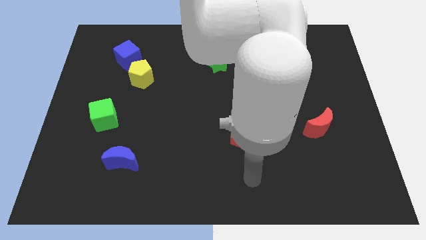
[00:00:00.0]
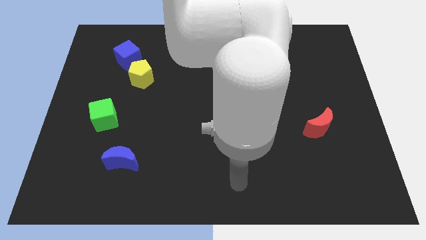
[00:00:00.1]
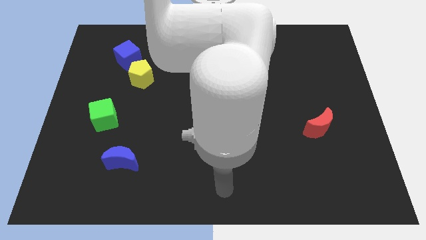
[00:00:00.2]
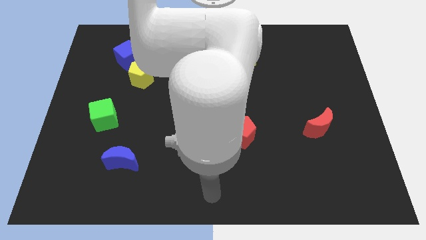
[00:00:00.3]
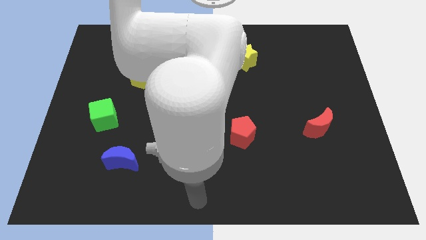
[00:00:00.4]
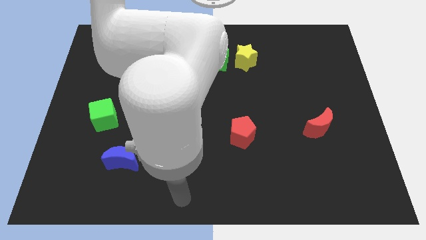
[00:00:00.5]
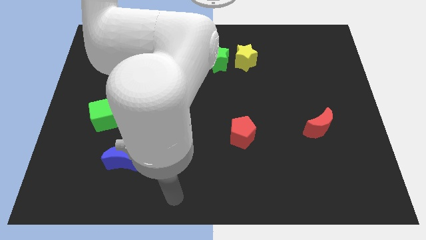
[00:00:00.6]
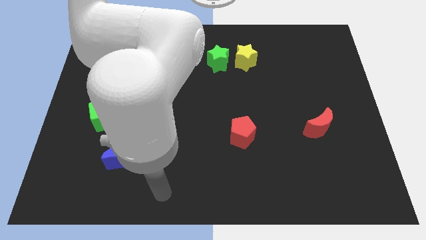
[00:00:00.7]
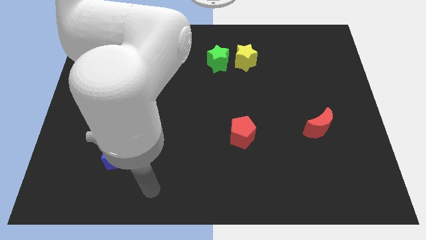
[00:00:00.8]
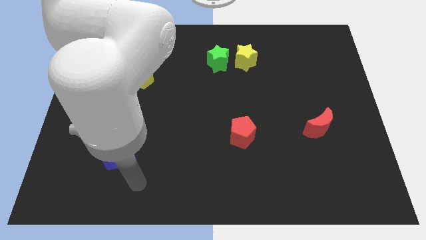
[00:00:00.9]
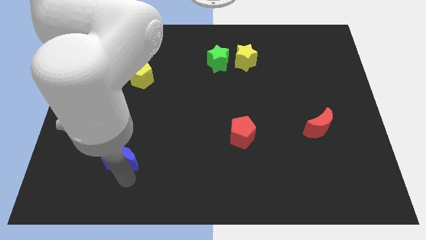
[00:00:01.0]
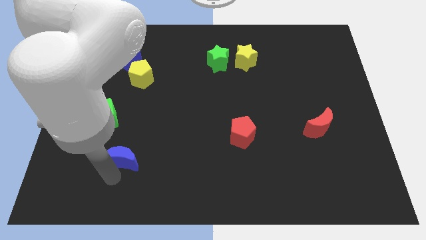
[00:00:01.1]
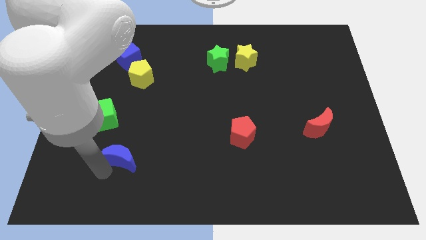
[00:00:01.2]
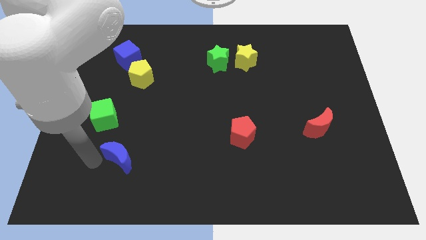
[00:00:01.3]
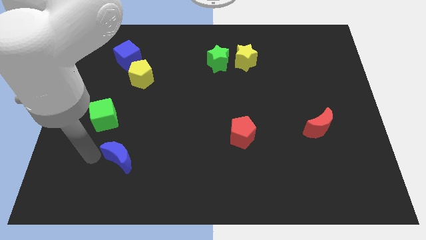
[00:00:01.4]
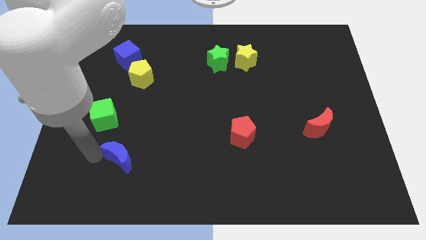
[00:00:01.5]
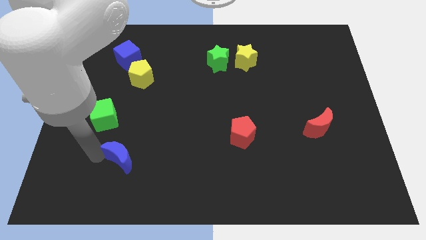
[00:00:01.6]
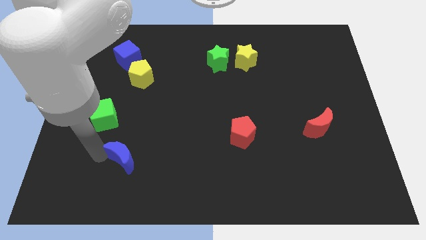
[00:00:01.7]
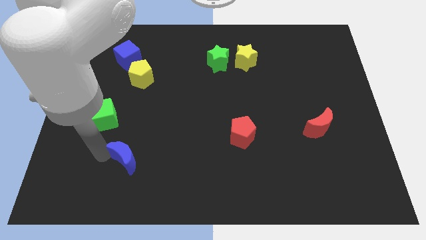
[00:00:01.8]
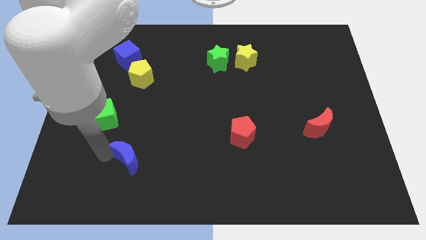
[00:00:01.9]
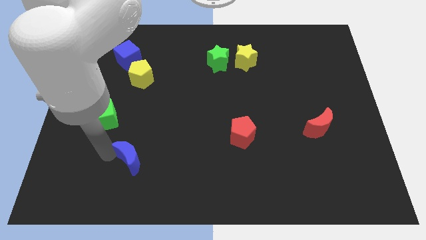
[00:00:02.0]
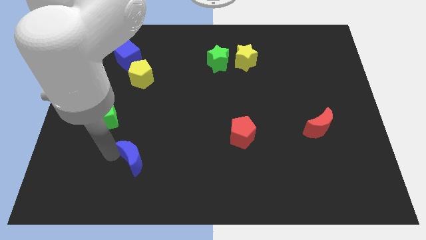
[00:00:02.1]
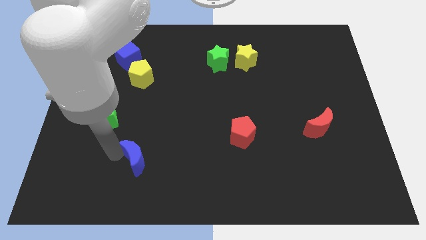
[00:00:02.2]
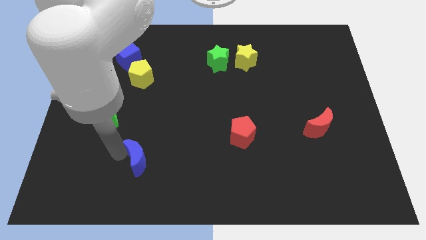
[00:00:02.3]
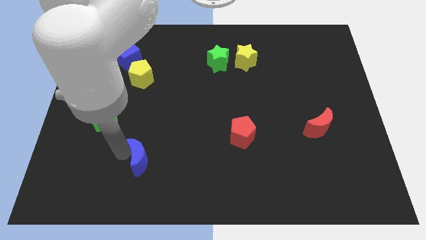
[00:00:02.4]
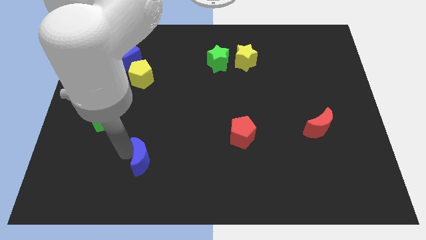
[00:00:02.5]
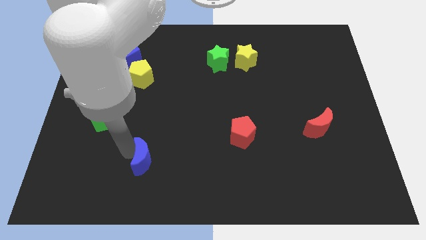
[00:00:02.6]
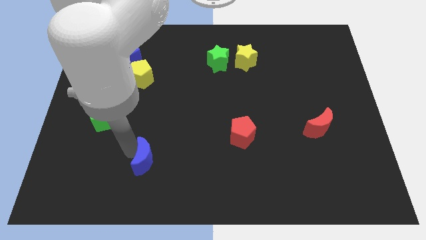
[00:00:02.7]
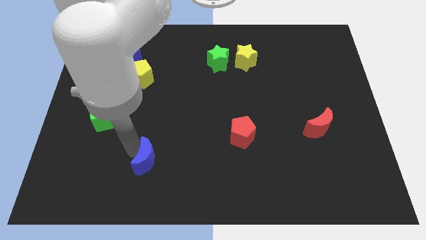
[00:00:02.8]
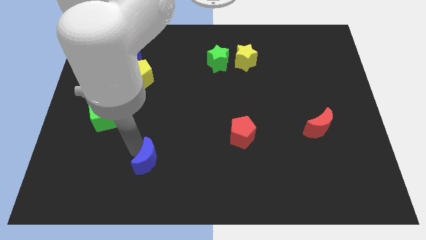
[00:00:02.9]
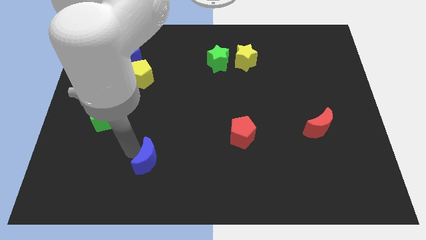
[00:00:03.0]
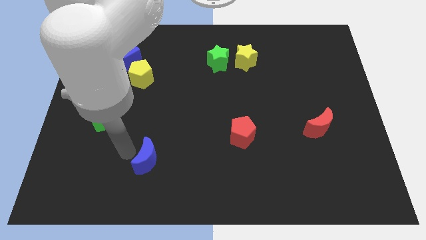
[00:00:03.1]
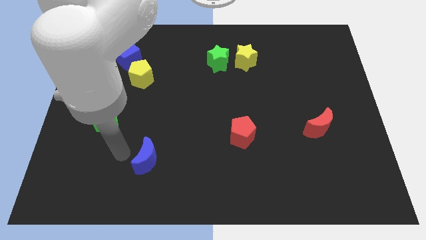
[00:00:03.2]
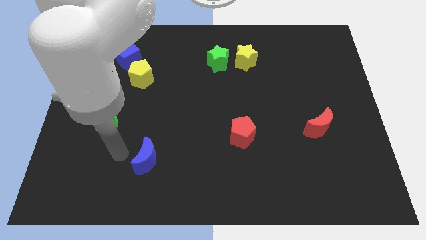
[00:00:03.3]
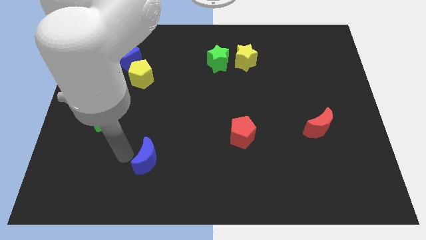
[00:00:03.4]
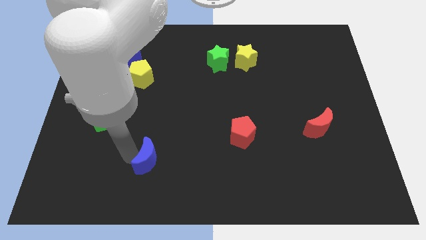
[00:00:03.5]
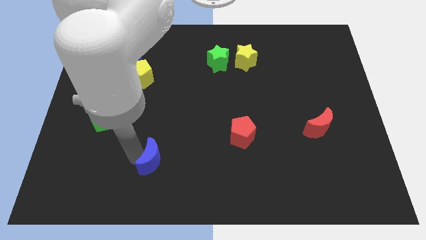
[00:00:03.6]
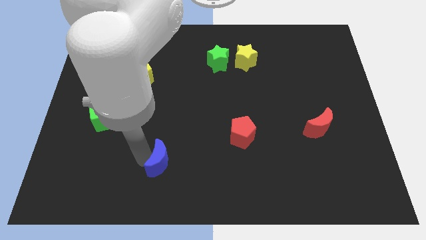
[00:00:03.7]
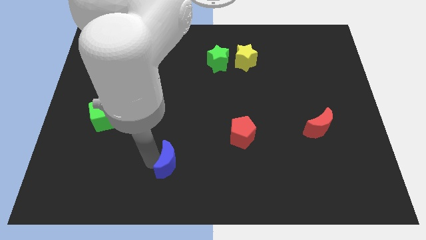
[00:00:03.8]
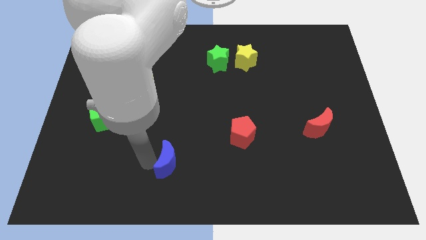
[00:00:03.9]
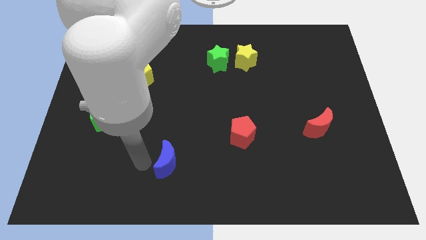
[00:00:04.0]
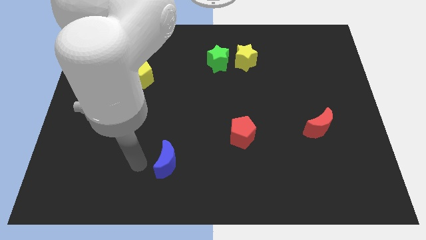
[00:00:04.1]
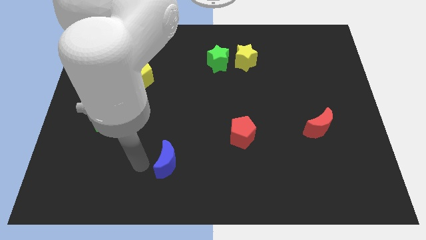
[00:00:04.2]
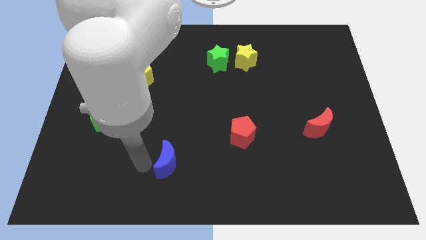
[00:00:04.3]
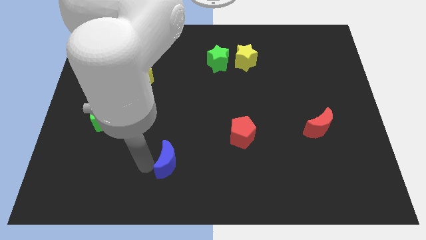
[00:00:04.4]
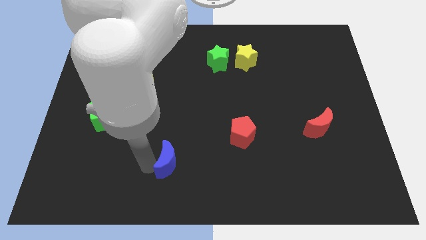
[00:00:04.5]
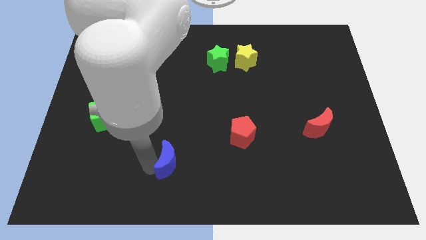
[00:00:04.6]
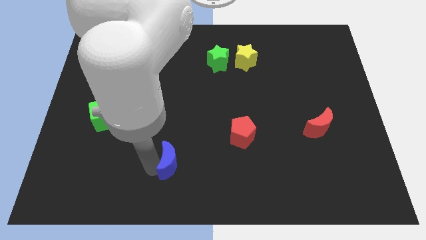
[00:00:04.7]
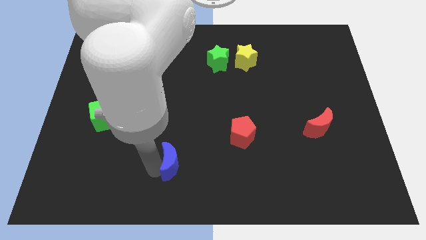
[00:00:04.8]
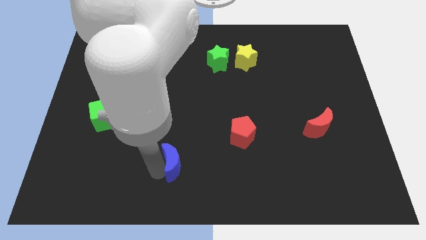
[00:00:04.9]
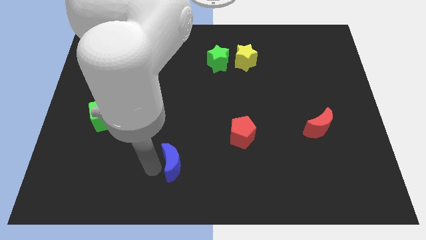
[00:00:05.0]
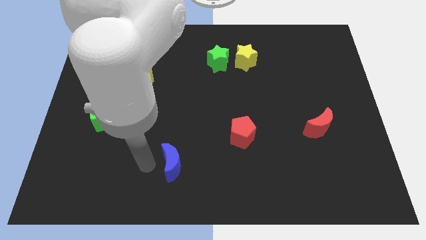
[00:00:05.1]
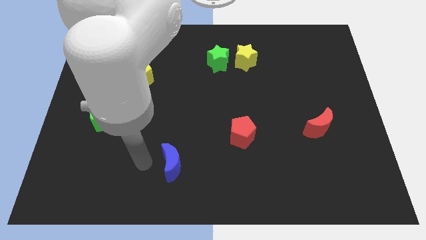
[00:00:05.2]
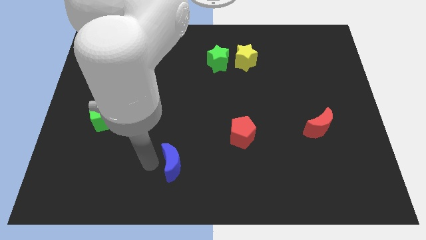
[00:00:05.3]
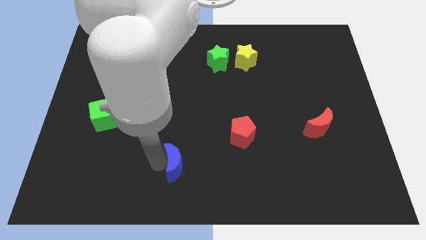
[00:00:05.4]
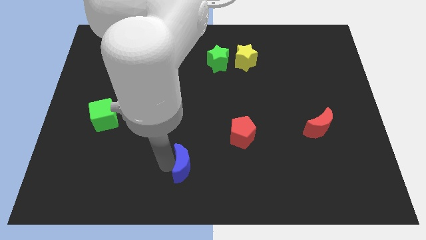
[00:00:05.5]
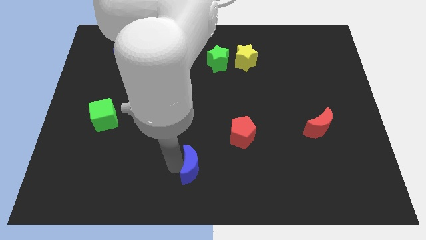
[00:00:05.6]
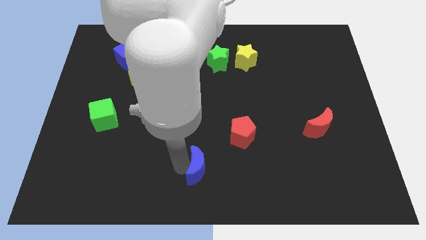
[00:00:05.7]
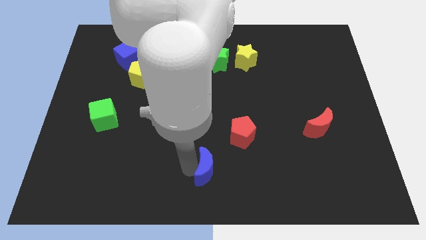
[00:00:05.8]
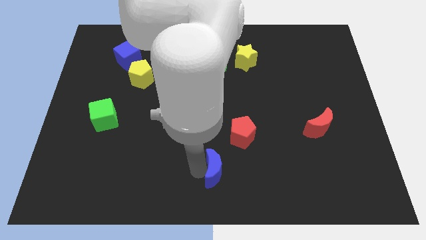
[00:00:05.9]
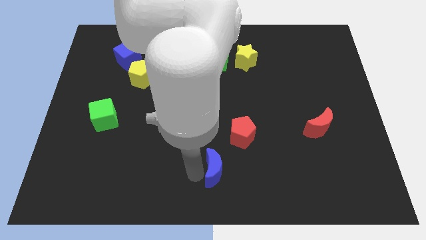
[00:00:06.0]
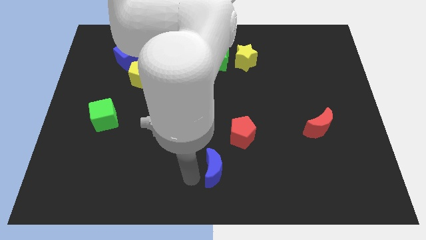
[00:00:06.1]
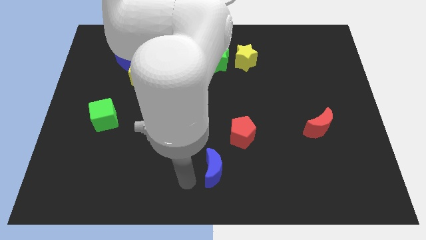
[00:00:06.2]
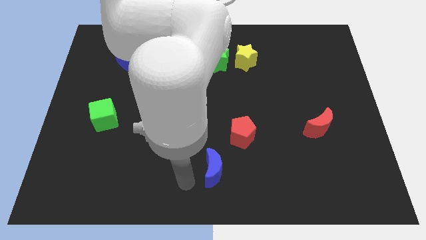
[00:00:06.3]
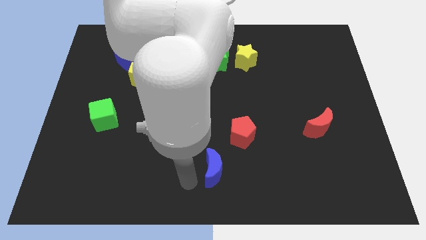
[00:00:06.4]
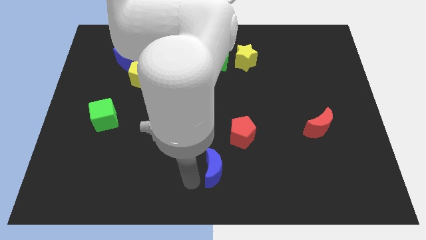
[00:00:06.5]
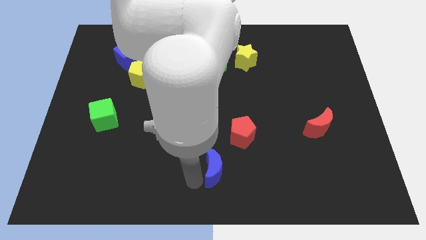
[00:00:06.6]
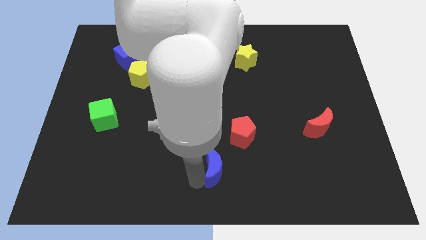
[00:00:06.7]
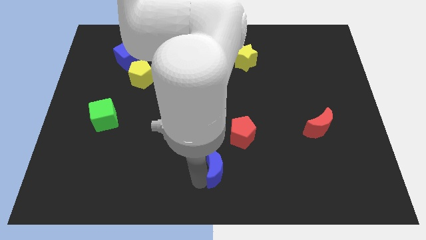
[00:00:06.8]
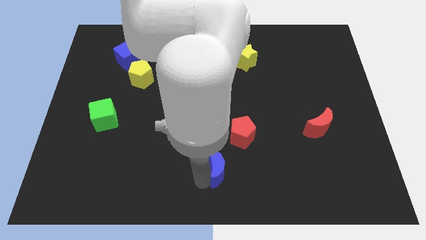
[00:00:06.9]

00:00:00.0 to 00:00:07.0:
slide the blue moon right

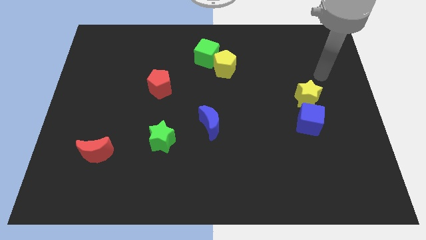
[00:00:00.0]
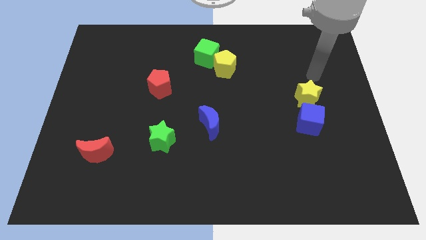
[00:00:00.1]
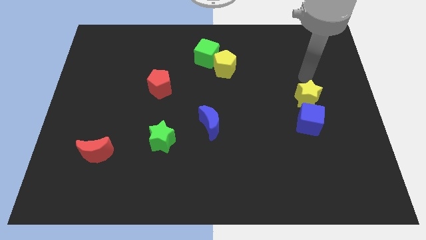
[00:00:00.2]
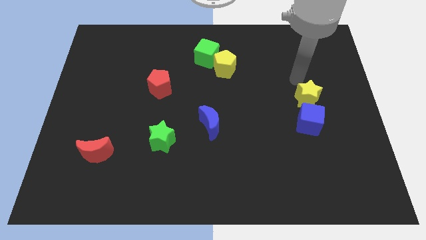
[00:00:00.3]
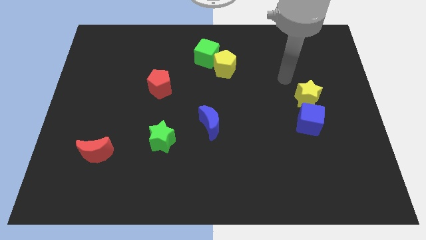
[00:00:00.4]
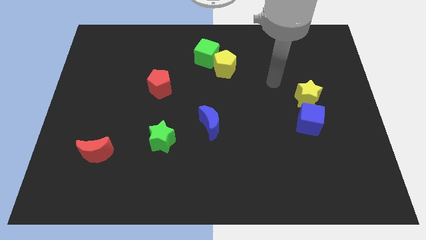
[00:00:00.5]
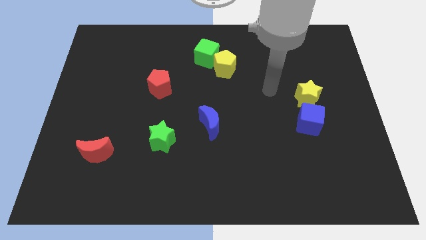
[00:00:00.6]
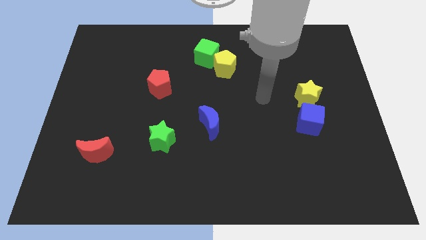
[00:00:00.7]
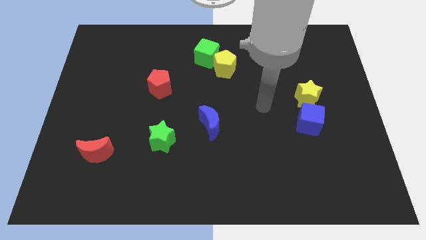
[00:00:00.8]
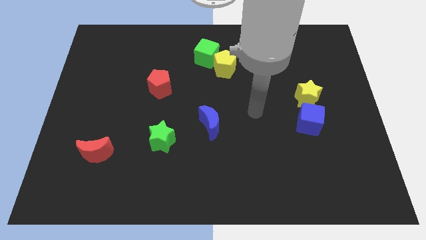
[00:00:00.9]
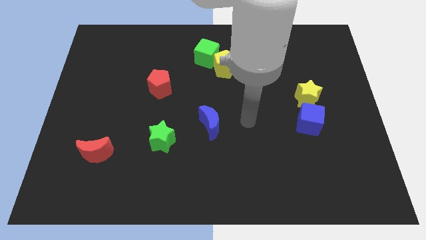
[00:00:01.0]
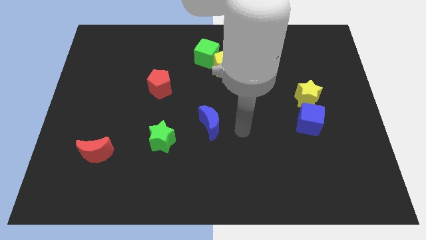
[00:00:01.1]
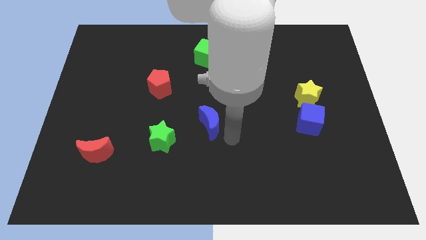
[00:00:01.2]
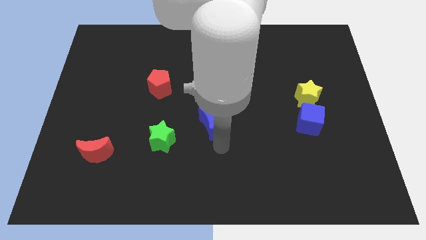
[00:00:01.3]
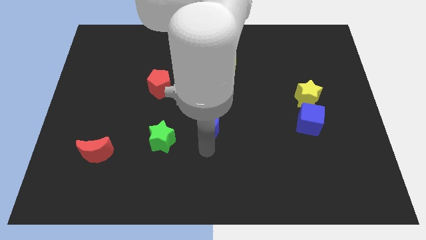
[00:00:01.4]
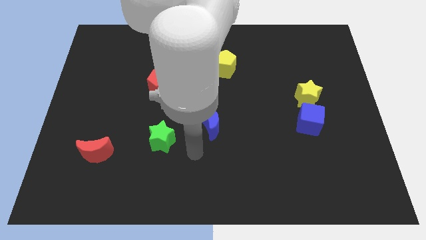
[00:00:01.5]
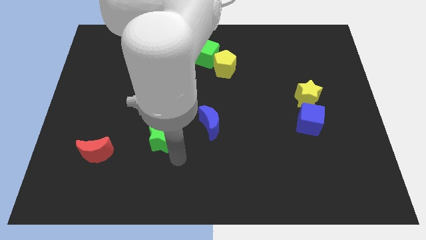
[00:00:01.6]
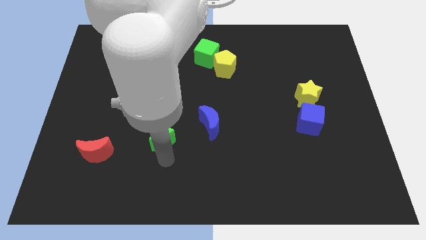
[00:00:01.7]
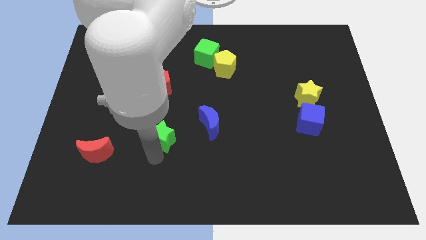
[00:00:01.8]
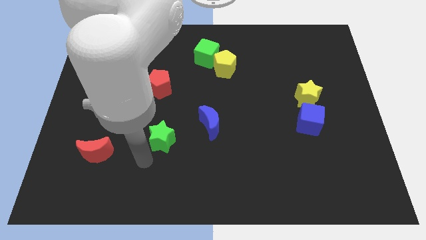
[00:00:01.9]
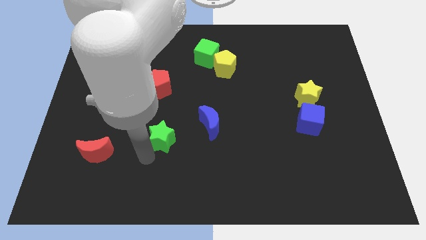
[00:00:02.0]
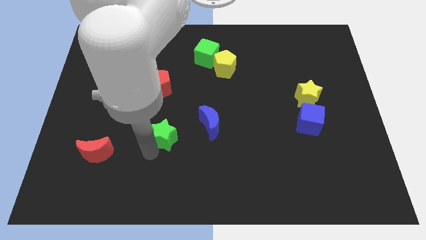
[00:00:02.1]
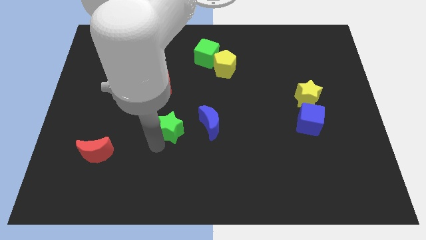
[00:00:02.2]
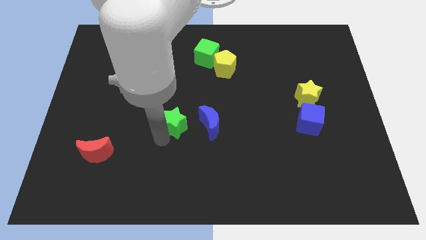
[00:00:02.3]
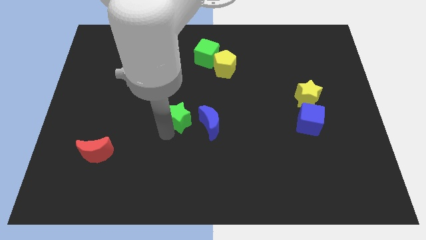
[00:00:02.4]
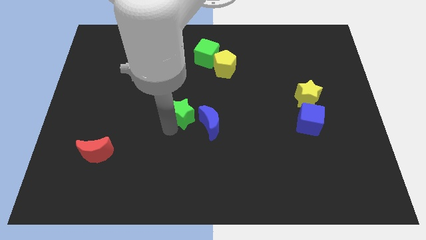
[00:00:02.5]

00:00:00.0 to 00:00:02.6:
move the green star up and right diagonally a bit
